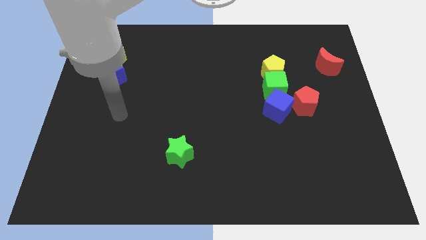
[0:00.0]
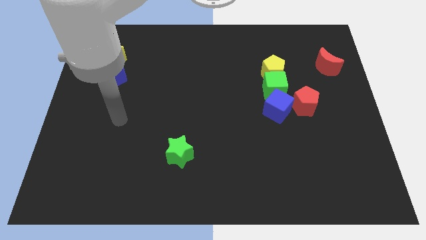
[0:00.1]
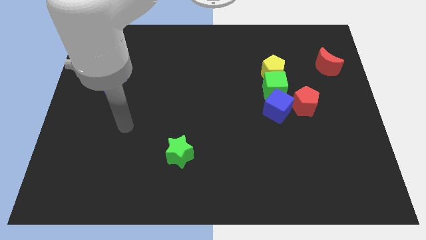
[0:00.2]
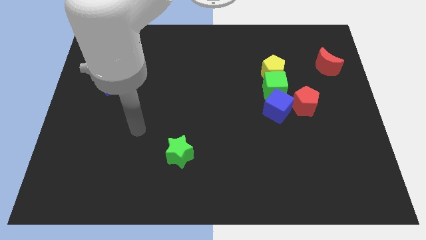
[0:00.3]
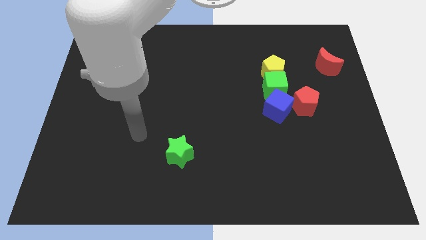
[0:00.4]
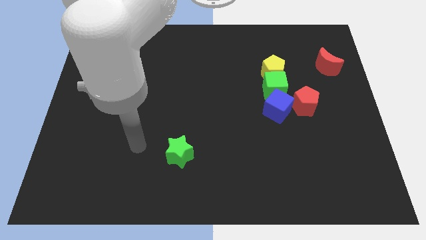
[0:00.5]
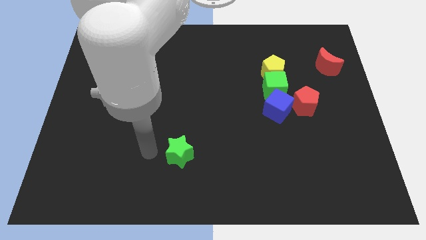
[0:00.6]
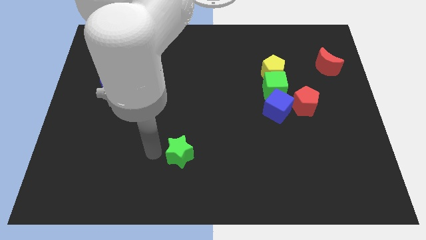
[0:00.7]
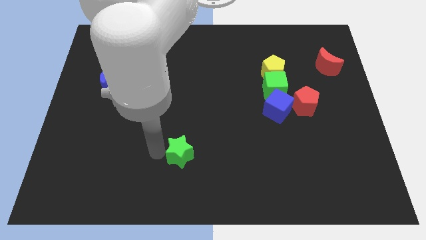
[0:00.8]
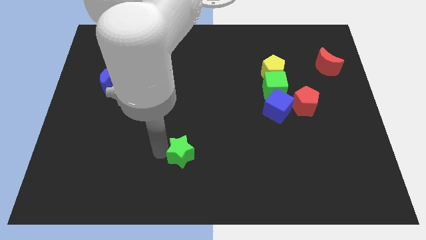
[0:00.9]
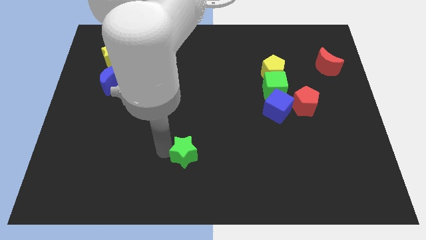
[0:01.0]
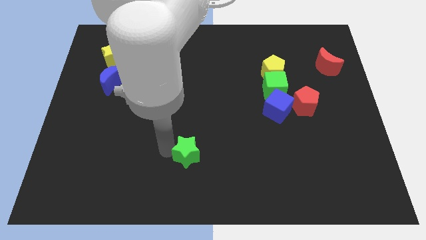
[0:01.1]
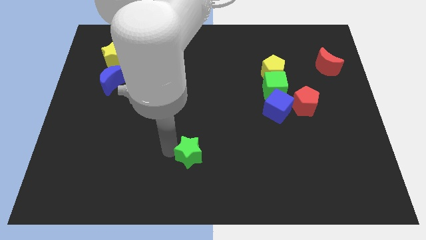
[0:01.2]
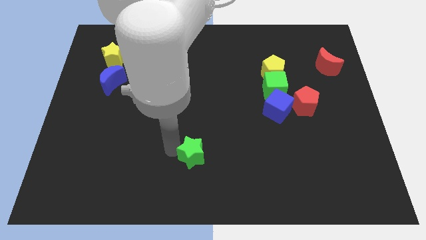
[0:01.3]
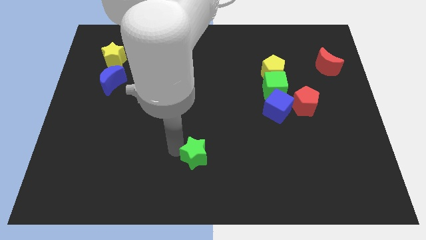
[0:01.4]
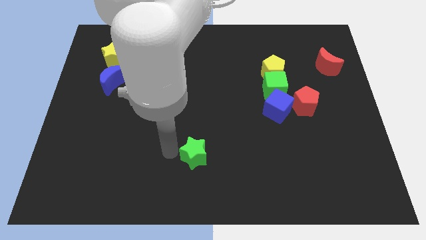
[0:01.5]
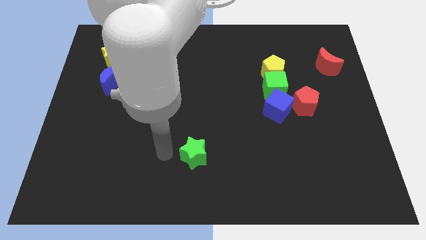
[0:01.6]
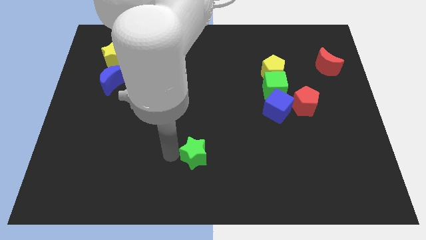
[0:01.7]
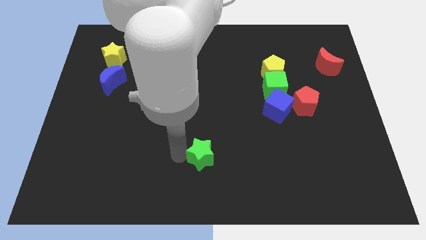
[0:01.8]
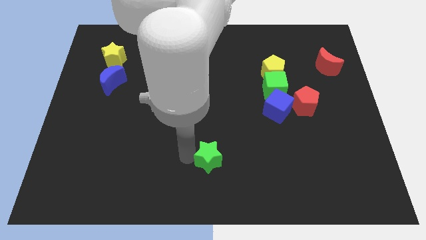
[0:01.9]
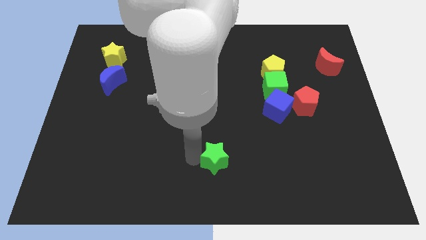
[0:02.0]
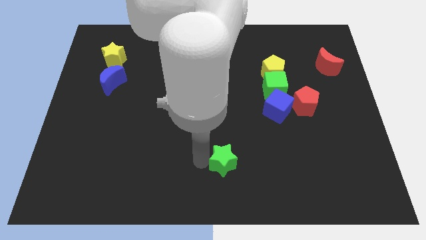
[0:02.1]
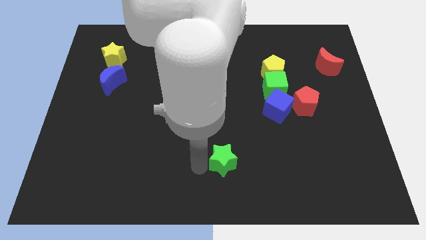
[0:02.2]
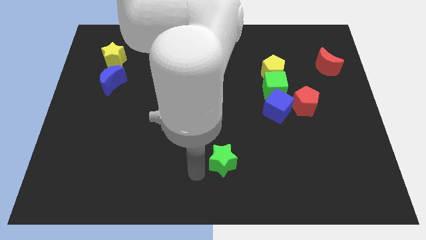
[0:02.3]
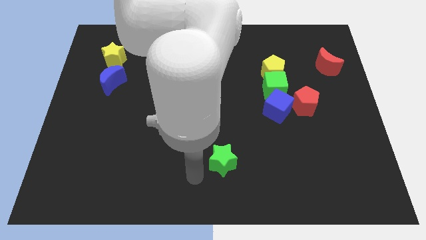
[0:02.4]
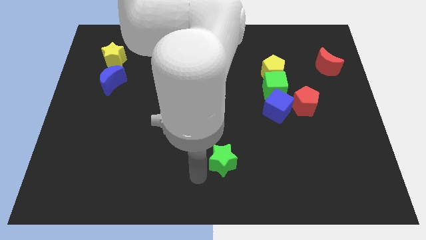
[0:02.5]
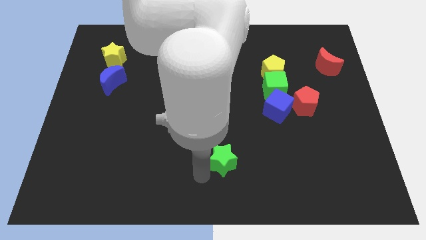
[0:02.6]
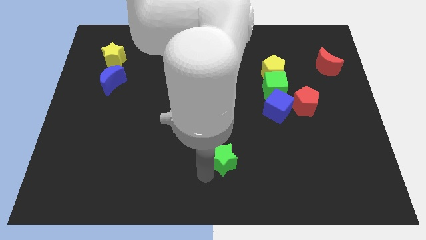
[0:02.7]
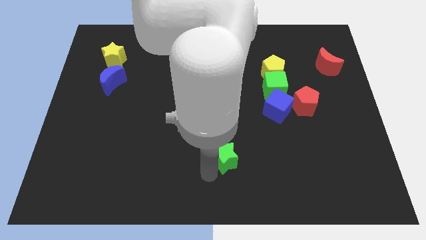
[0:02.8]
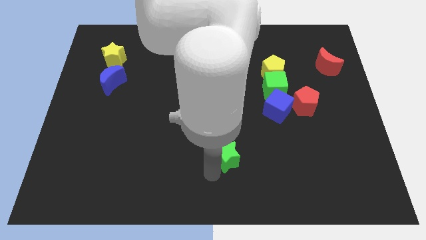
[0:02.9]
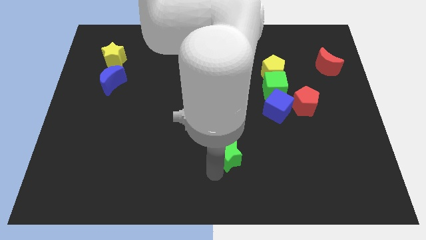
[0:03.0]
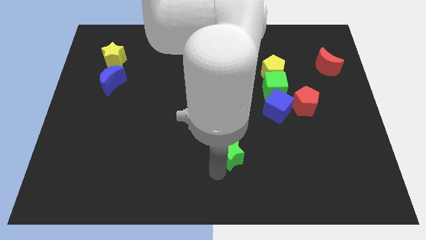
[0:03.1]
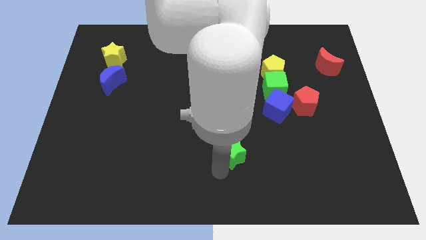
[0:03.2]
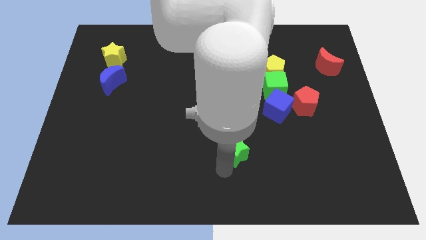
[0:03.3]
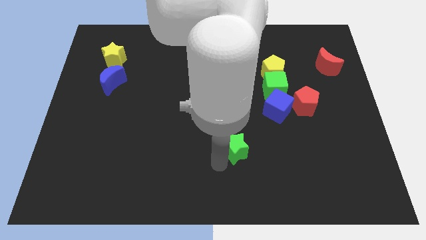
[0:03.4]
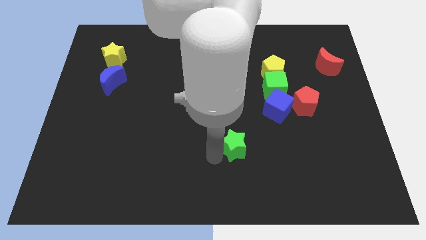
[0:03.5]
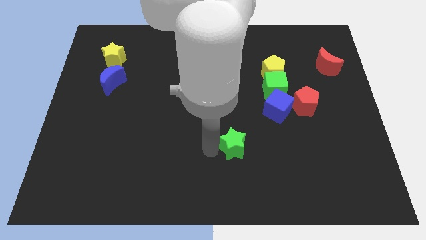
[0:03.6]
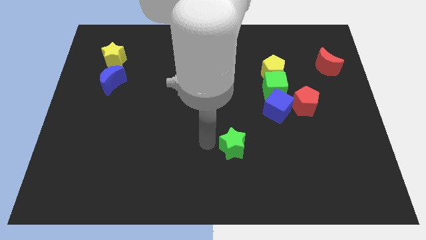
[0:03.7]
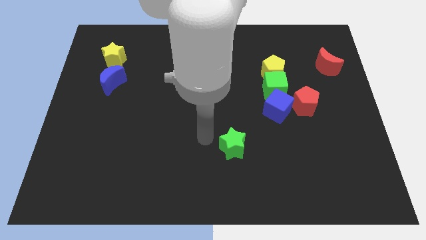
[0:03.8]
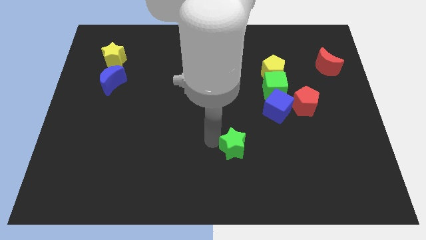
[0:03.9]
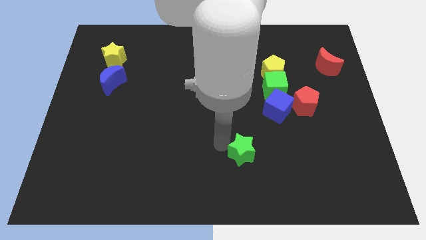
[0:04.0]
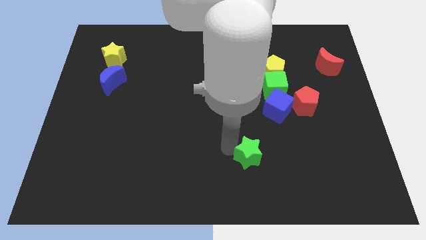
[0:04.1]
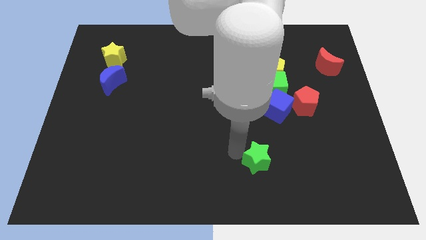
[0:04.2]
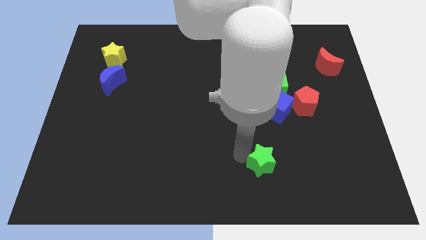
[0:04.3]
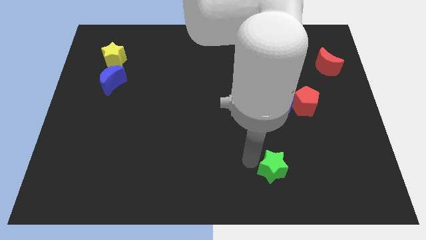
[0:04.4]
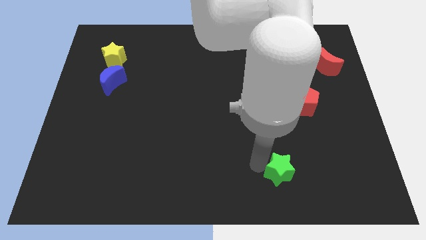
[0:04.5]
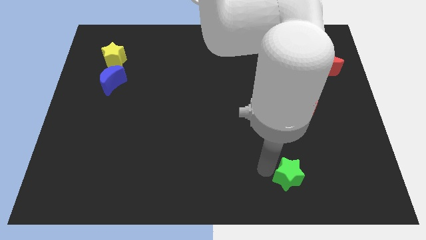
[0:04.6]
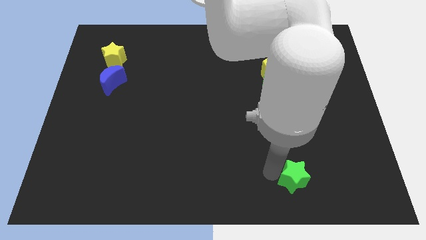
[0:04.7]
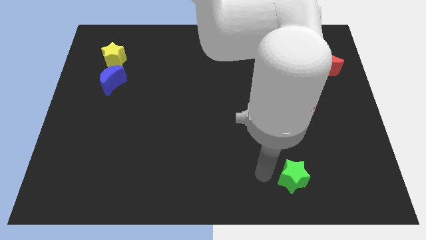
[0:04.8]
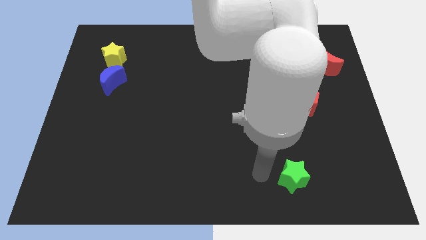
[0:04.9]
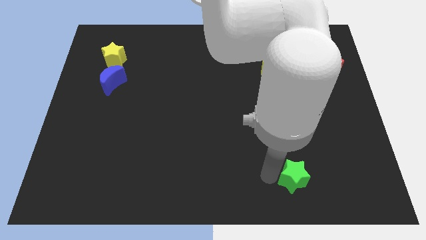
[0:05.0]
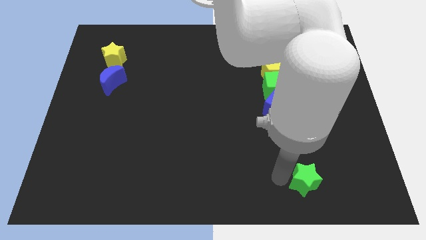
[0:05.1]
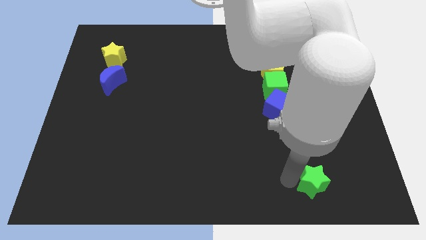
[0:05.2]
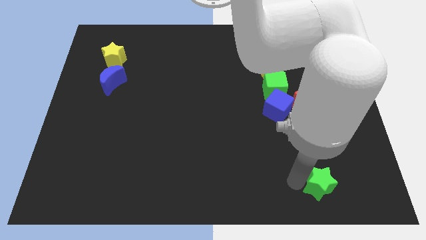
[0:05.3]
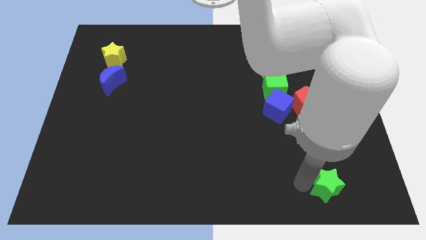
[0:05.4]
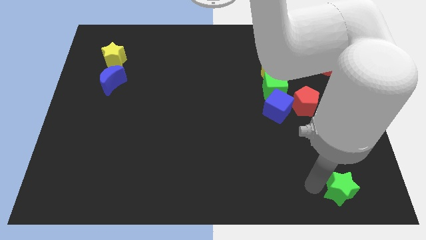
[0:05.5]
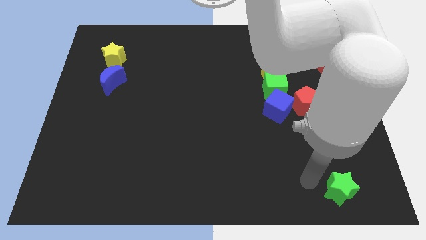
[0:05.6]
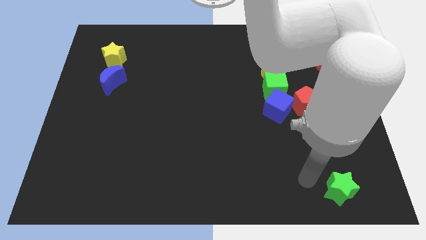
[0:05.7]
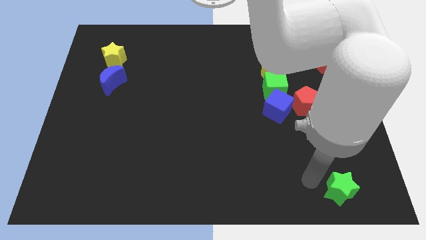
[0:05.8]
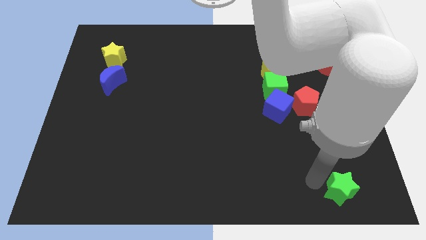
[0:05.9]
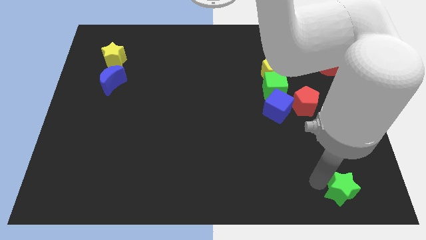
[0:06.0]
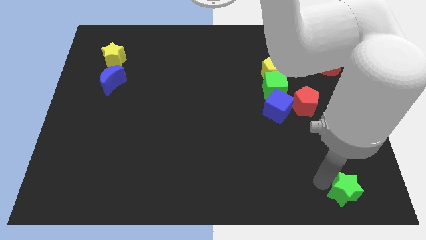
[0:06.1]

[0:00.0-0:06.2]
push the green star to the bottom right
